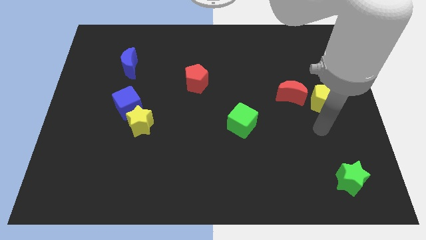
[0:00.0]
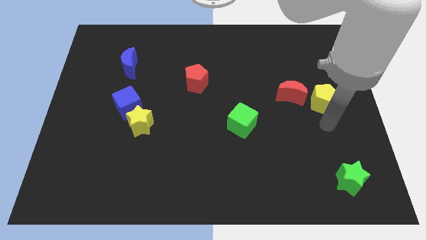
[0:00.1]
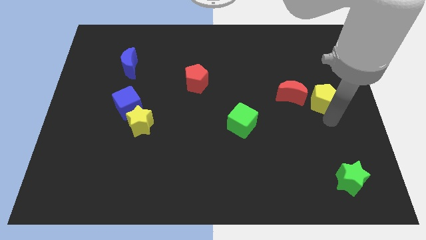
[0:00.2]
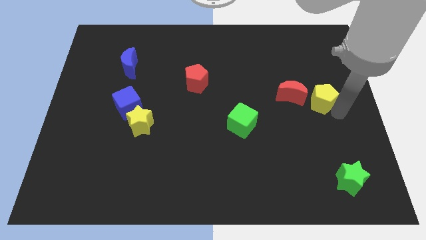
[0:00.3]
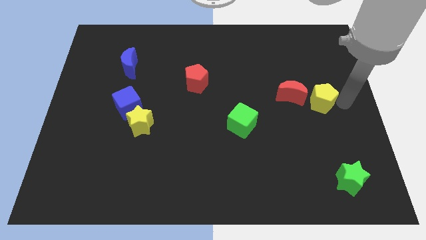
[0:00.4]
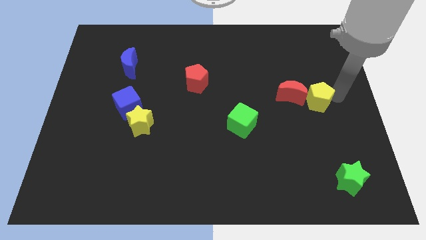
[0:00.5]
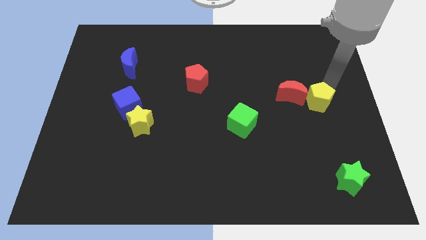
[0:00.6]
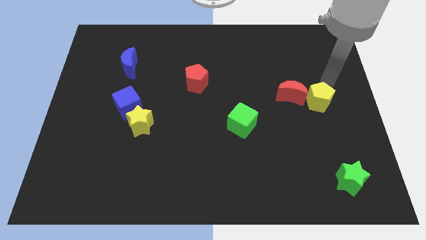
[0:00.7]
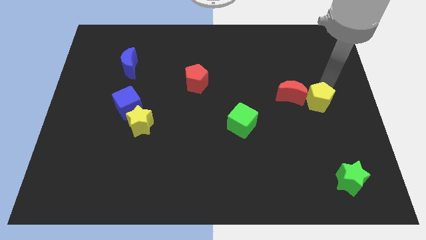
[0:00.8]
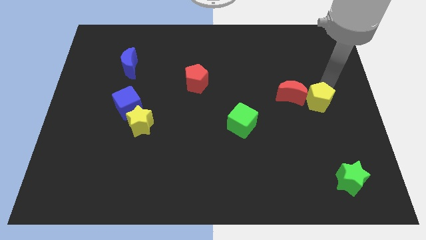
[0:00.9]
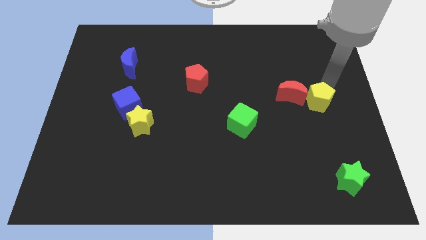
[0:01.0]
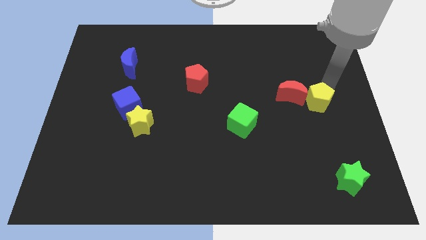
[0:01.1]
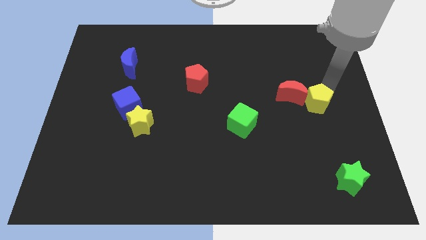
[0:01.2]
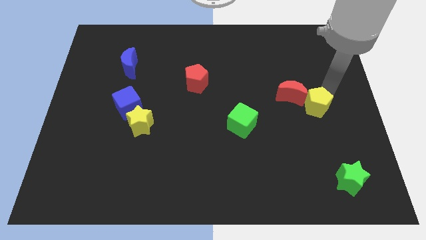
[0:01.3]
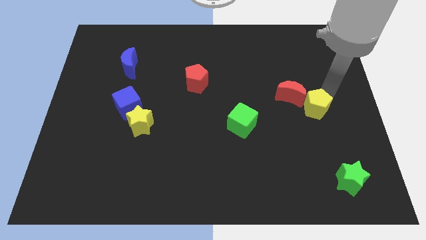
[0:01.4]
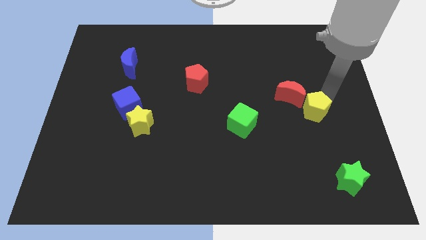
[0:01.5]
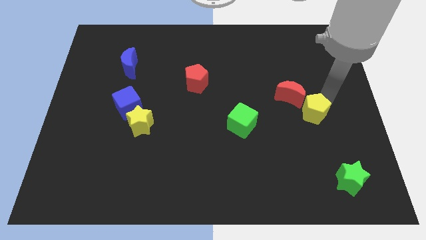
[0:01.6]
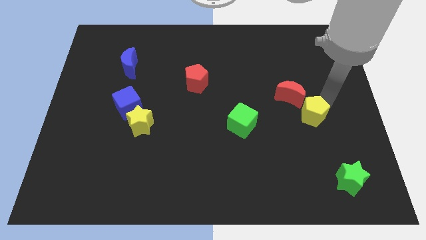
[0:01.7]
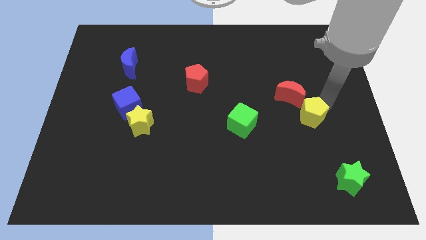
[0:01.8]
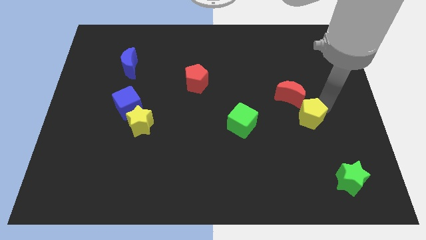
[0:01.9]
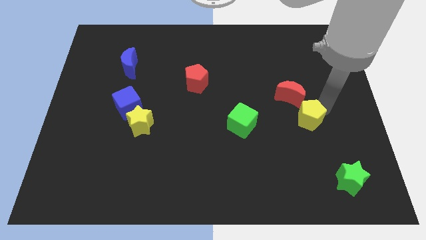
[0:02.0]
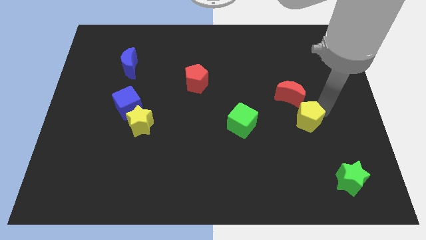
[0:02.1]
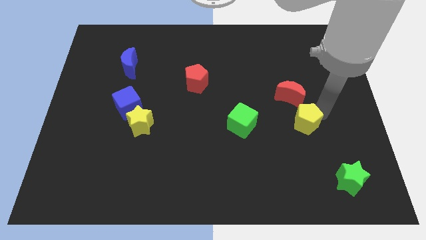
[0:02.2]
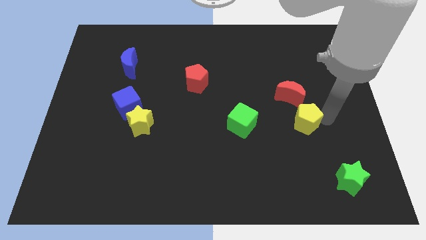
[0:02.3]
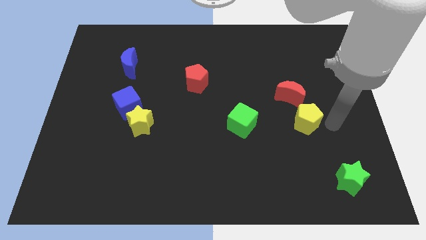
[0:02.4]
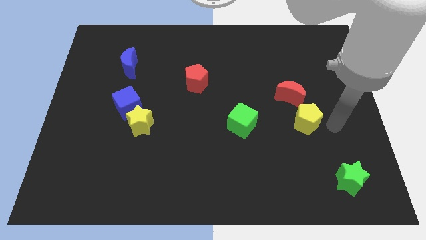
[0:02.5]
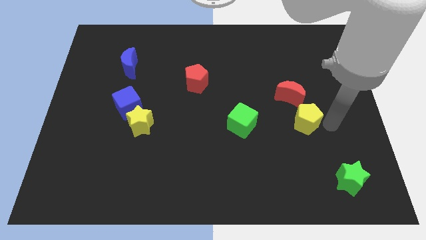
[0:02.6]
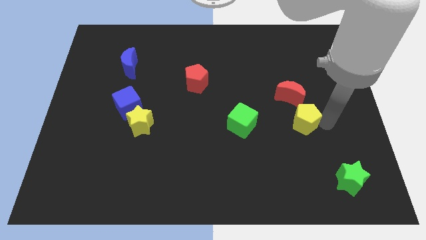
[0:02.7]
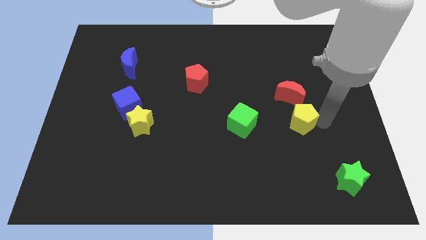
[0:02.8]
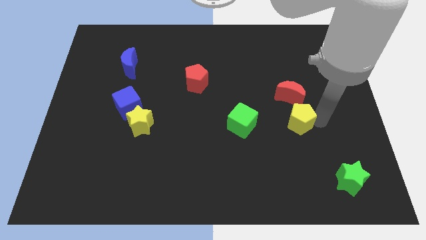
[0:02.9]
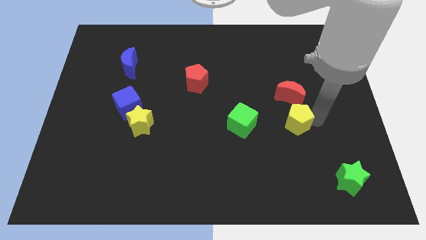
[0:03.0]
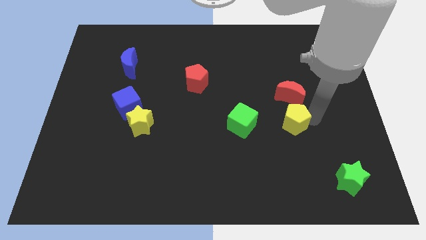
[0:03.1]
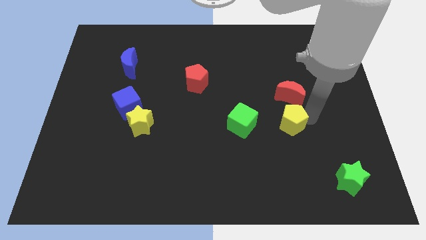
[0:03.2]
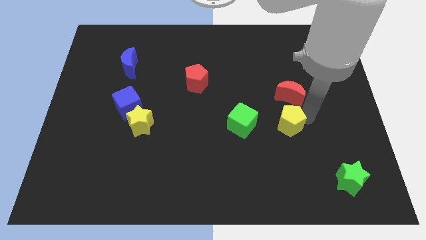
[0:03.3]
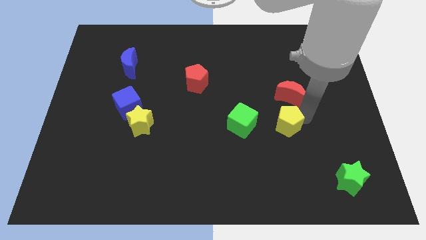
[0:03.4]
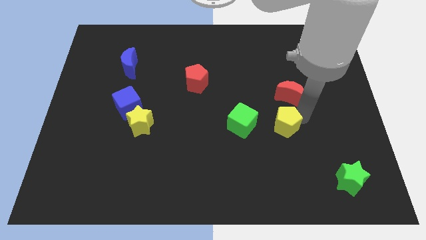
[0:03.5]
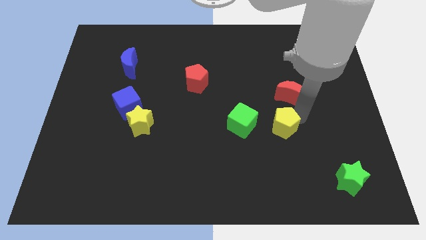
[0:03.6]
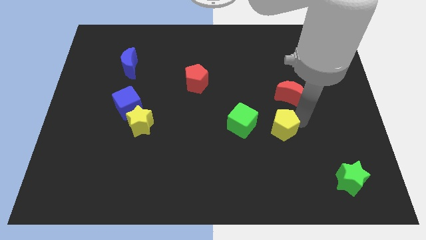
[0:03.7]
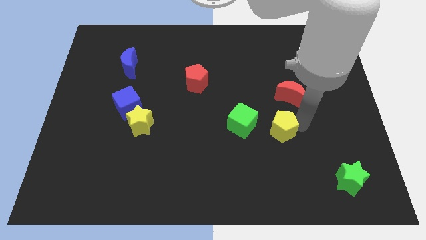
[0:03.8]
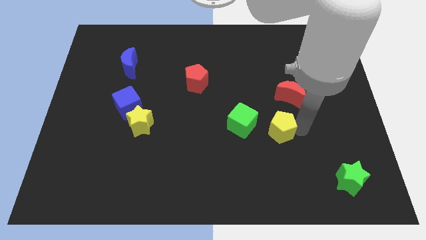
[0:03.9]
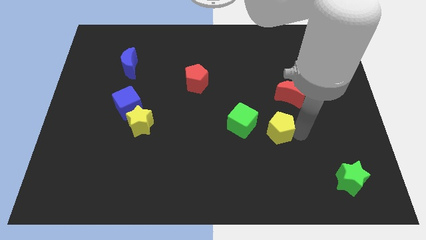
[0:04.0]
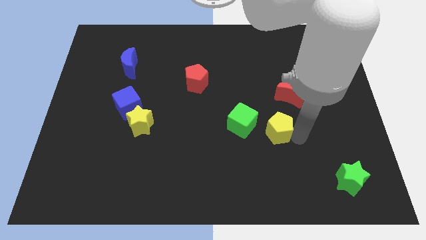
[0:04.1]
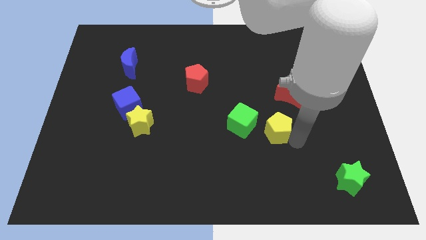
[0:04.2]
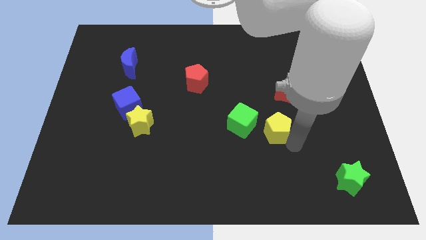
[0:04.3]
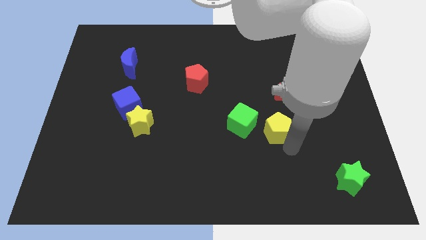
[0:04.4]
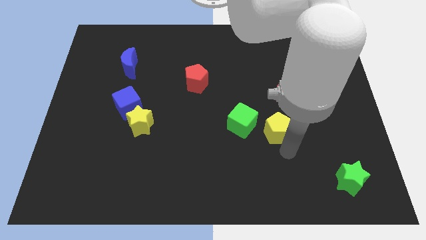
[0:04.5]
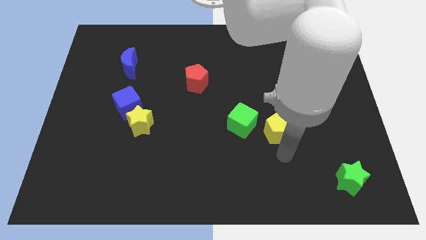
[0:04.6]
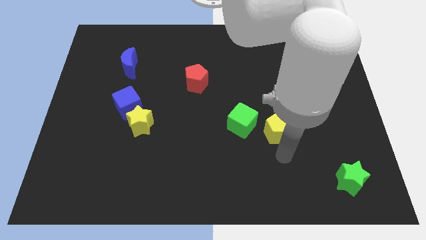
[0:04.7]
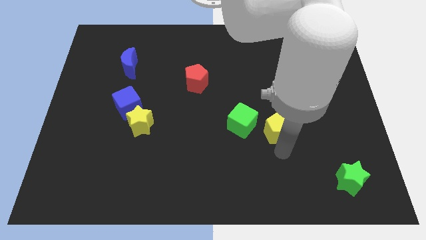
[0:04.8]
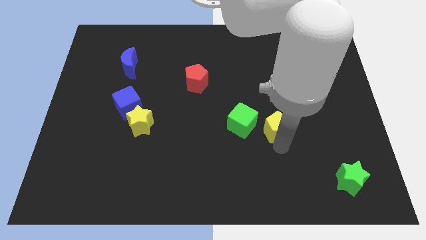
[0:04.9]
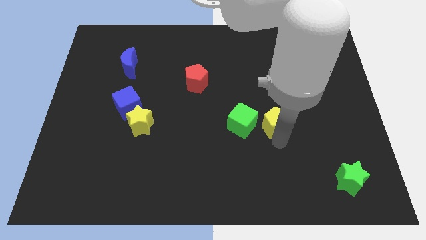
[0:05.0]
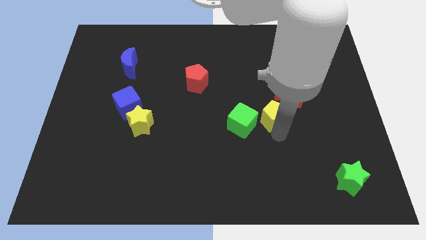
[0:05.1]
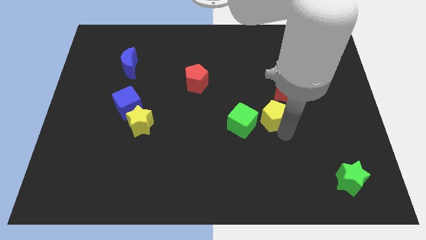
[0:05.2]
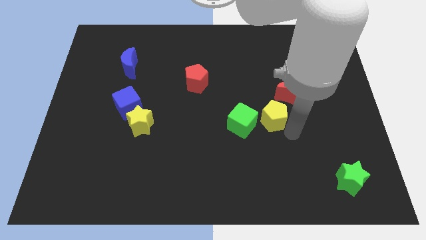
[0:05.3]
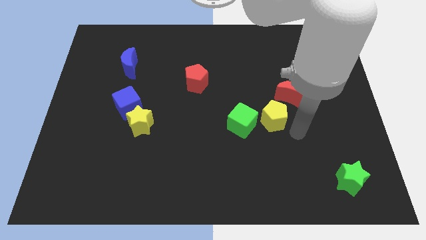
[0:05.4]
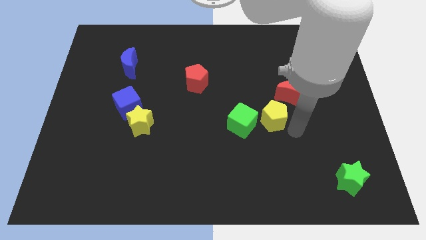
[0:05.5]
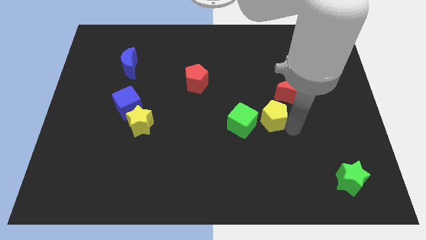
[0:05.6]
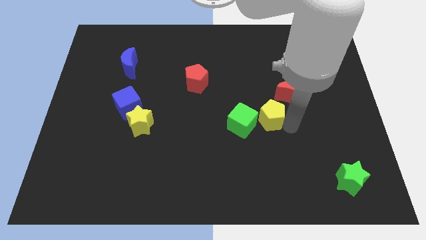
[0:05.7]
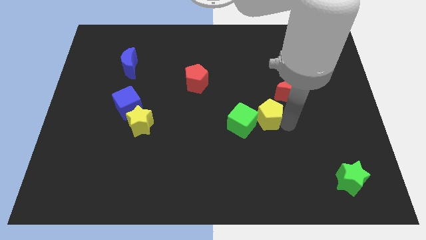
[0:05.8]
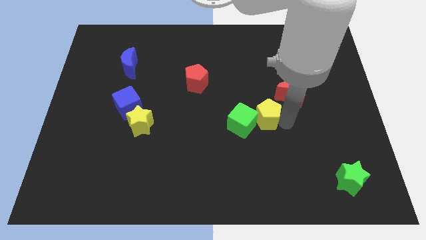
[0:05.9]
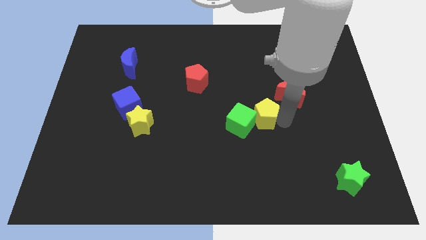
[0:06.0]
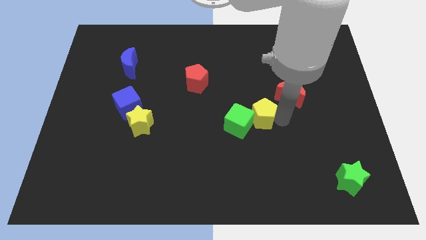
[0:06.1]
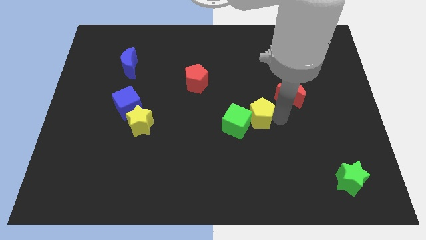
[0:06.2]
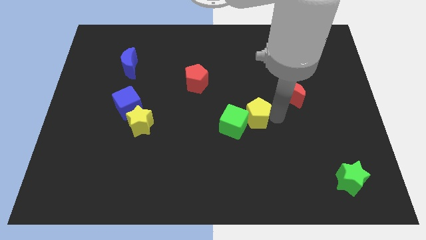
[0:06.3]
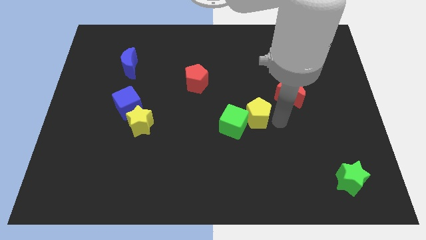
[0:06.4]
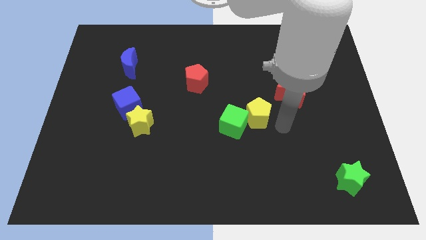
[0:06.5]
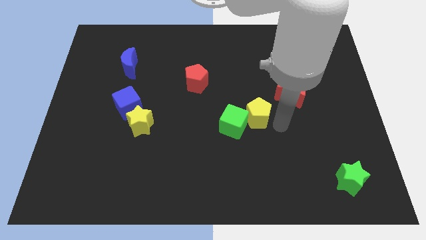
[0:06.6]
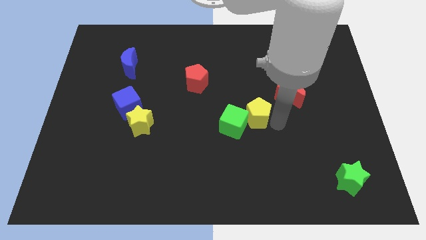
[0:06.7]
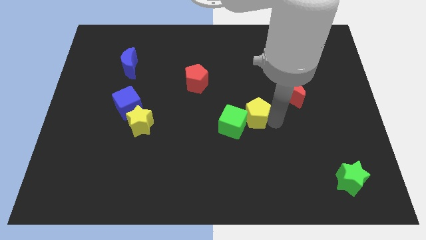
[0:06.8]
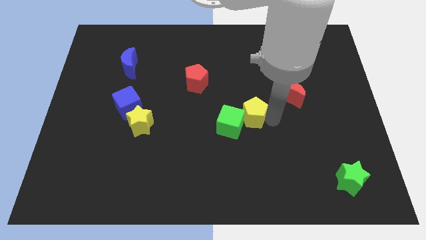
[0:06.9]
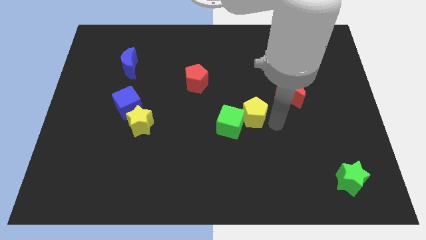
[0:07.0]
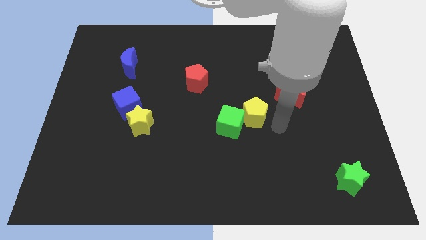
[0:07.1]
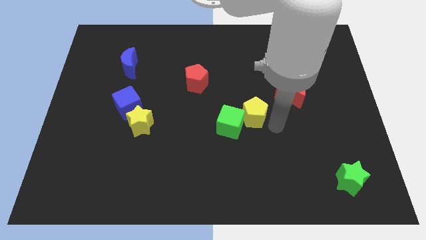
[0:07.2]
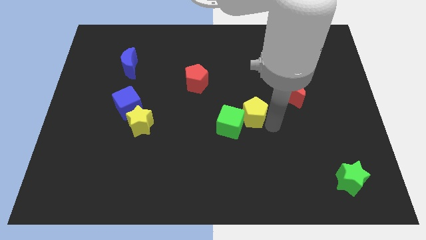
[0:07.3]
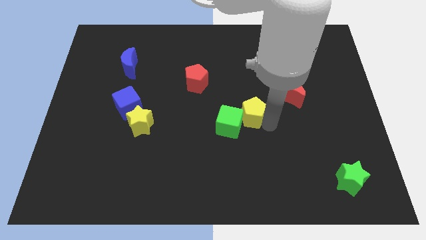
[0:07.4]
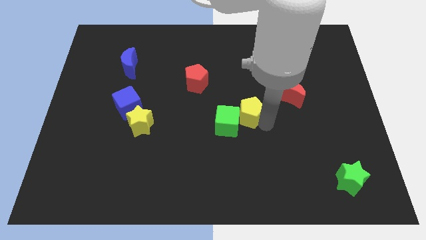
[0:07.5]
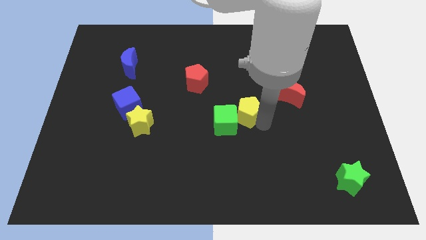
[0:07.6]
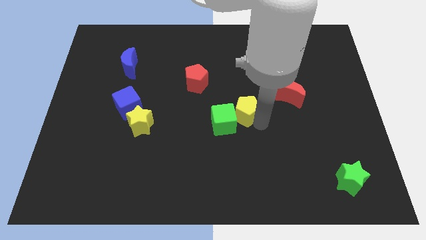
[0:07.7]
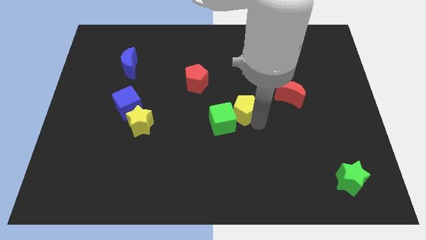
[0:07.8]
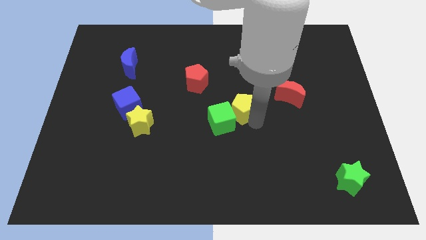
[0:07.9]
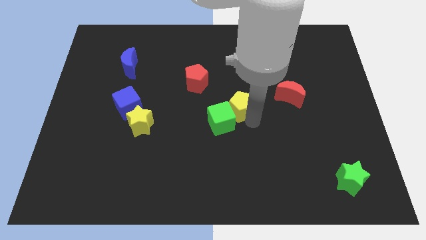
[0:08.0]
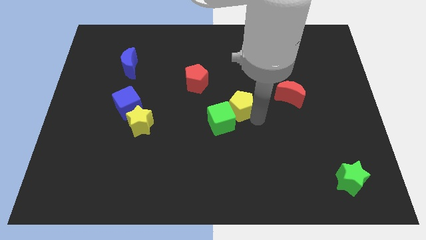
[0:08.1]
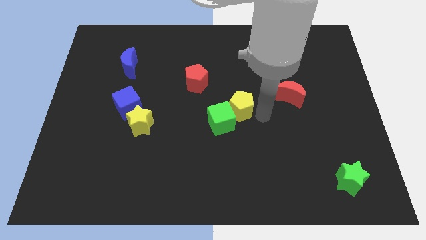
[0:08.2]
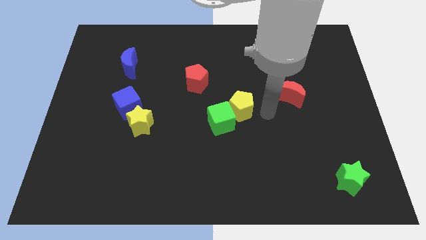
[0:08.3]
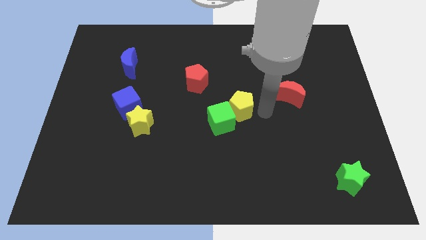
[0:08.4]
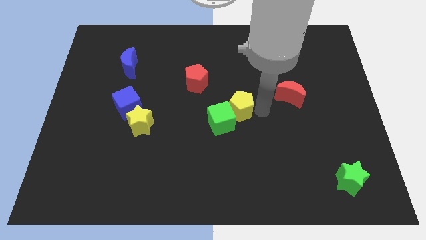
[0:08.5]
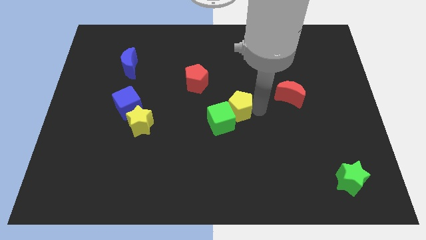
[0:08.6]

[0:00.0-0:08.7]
slide the yellow pentagon to the left
